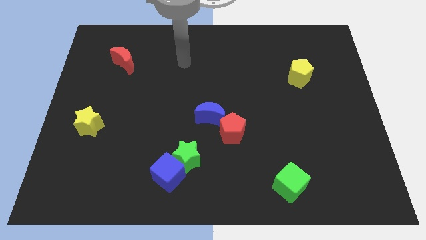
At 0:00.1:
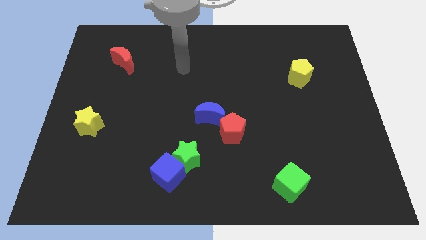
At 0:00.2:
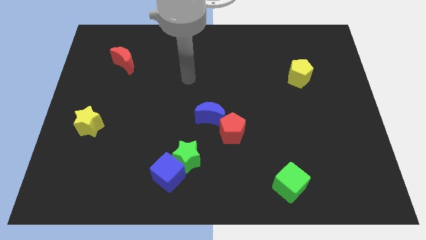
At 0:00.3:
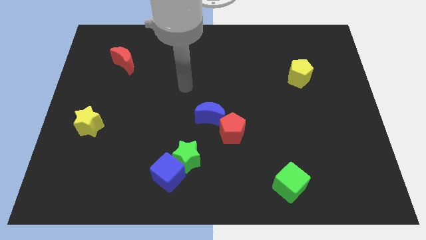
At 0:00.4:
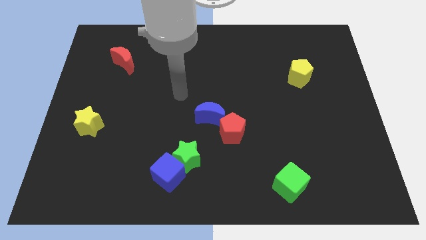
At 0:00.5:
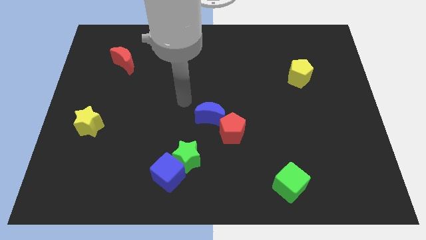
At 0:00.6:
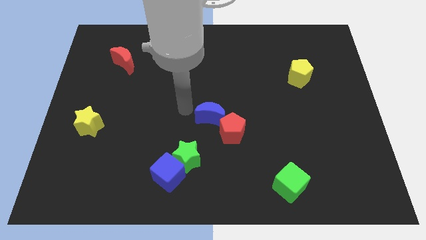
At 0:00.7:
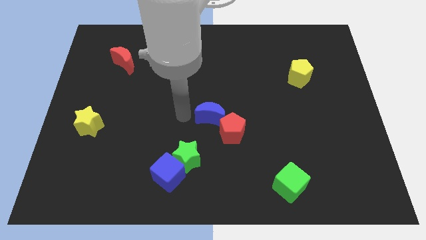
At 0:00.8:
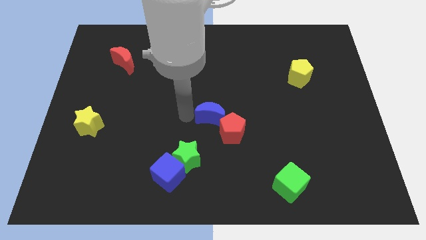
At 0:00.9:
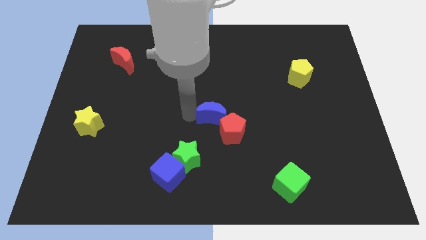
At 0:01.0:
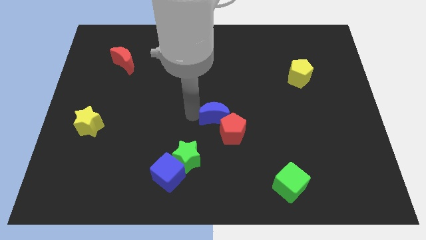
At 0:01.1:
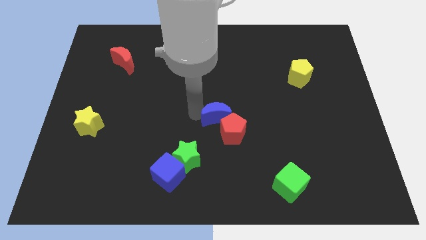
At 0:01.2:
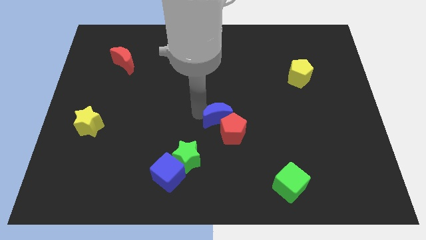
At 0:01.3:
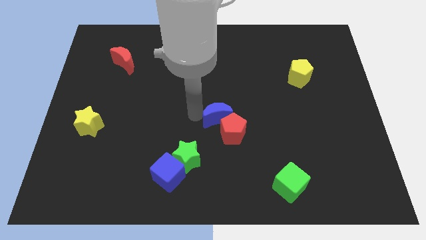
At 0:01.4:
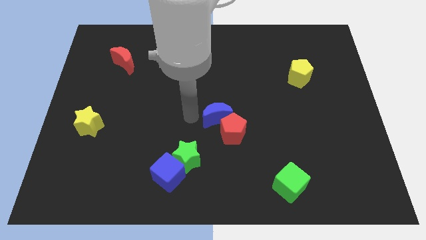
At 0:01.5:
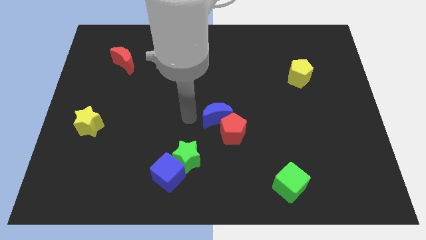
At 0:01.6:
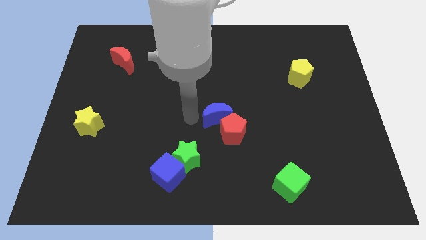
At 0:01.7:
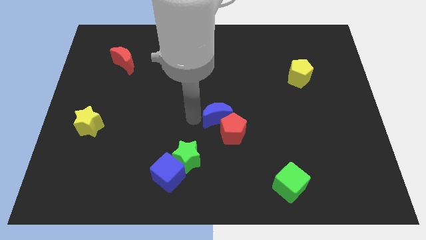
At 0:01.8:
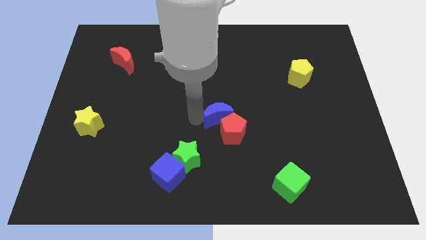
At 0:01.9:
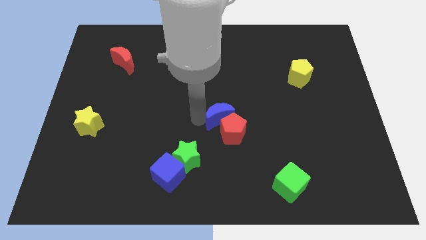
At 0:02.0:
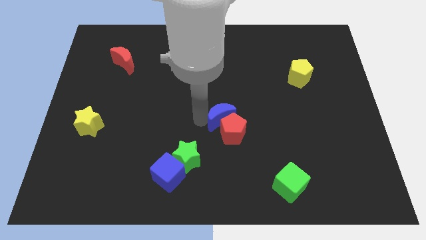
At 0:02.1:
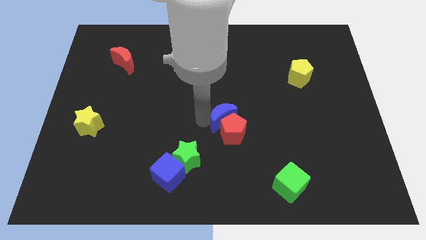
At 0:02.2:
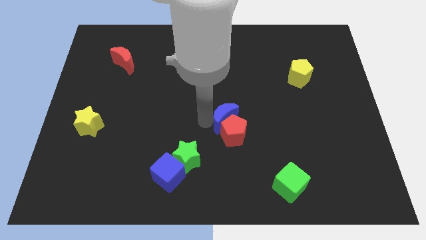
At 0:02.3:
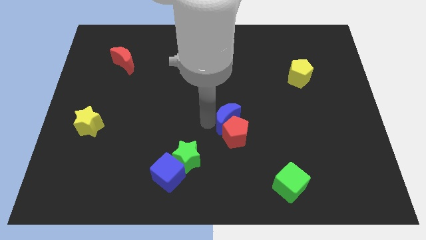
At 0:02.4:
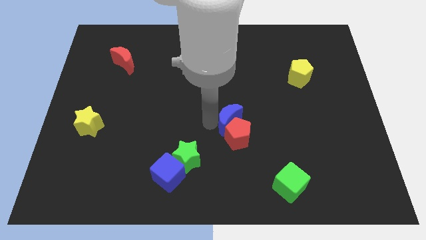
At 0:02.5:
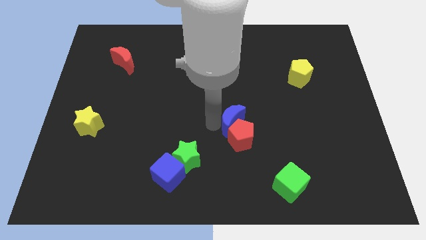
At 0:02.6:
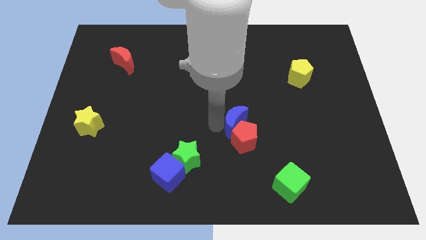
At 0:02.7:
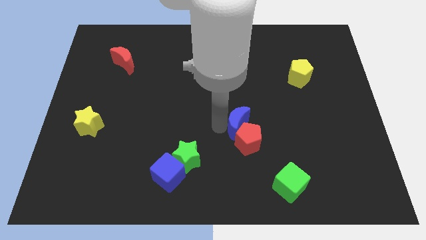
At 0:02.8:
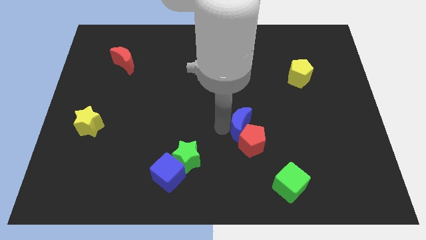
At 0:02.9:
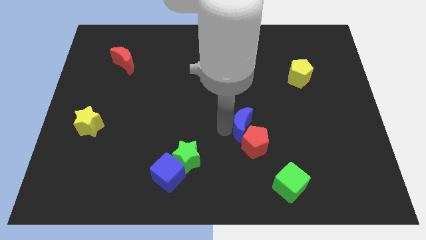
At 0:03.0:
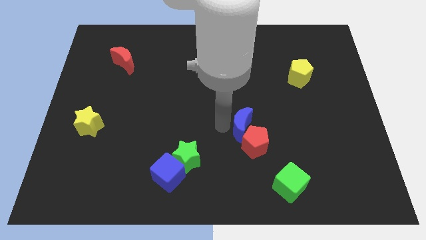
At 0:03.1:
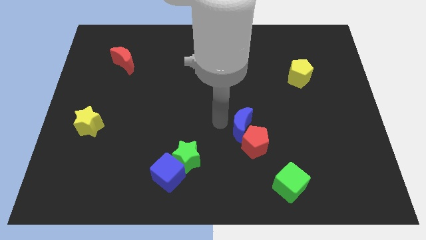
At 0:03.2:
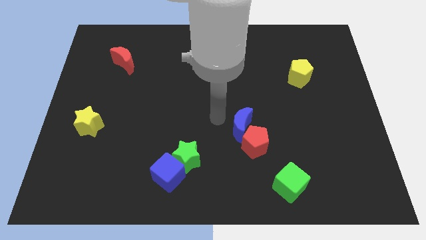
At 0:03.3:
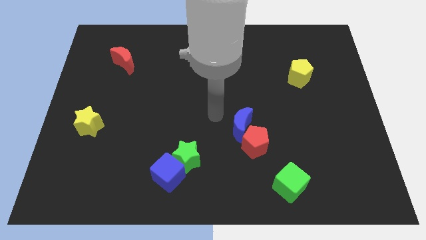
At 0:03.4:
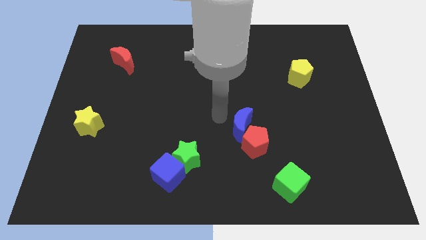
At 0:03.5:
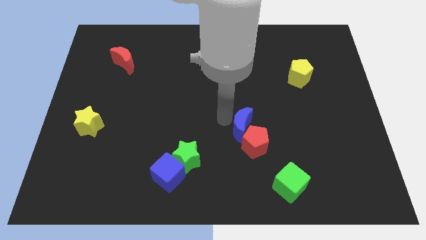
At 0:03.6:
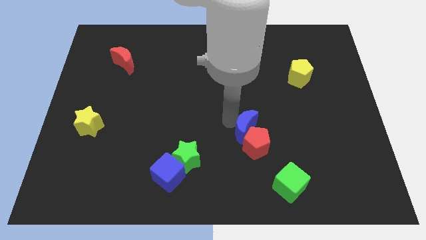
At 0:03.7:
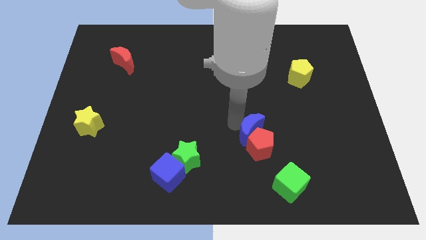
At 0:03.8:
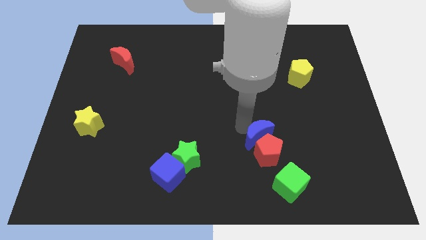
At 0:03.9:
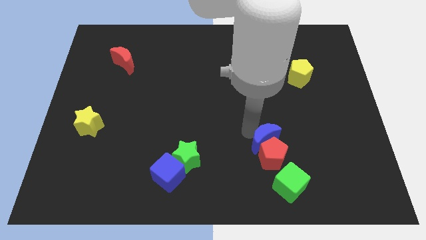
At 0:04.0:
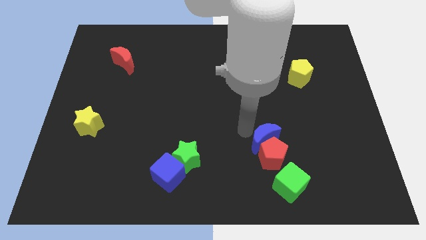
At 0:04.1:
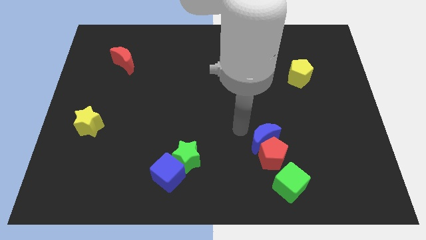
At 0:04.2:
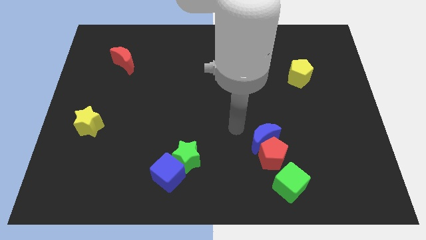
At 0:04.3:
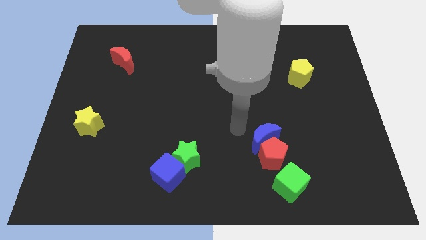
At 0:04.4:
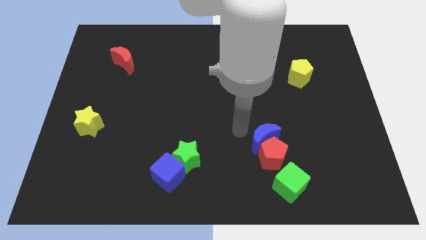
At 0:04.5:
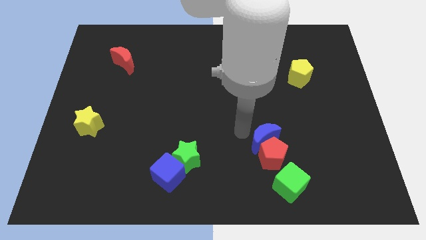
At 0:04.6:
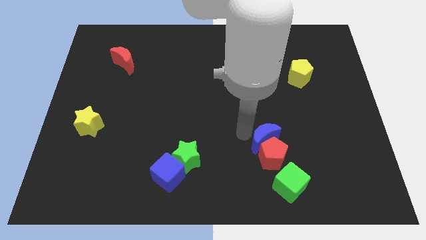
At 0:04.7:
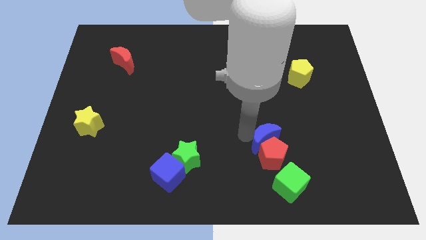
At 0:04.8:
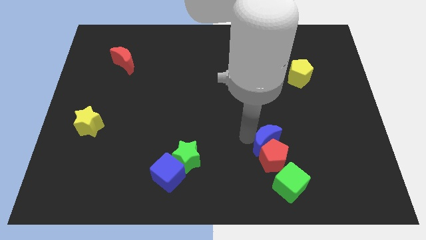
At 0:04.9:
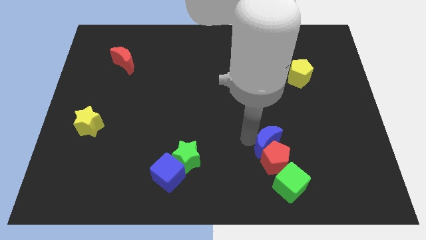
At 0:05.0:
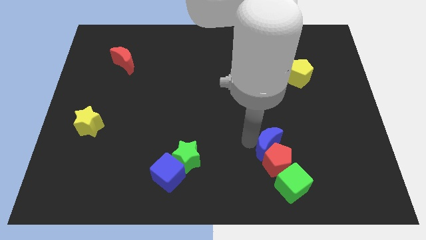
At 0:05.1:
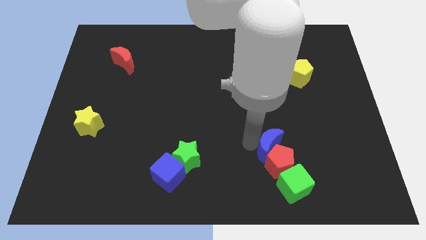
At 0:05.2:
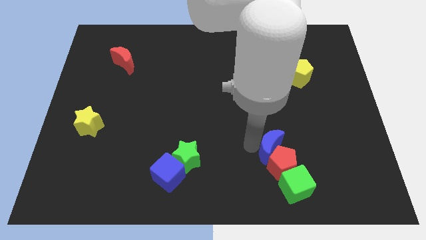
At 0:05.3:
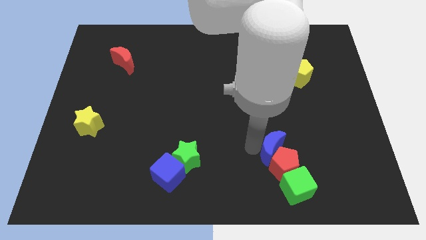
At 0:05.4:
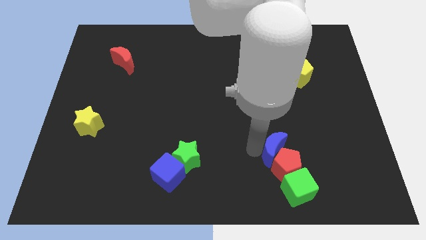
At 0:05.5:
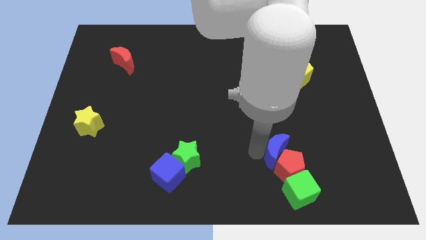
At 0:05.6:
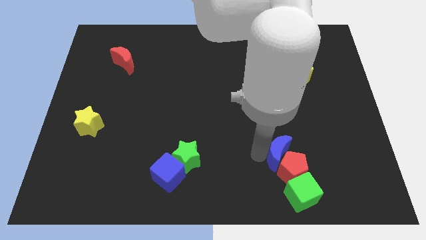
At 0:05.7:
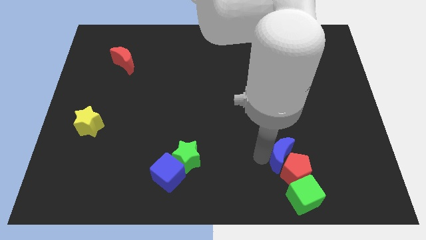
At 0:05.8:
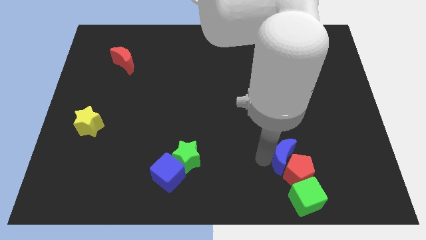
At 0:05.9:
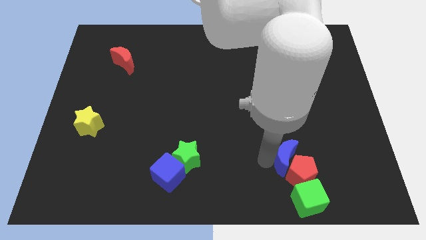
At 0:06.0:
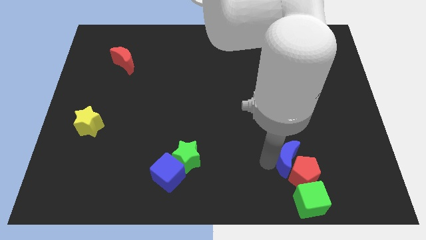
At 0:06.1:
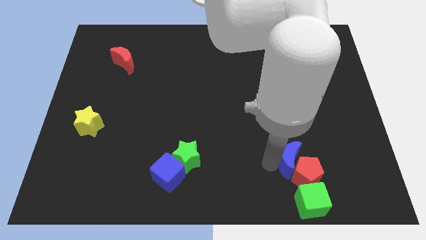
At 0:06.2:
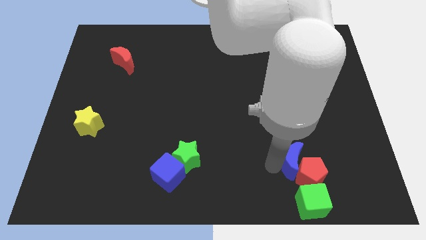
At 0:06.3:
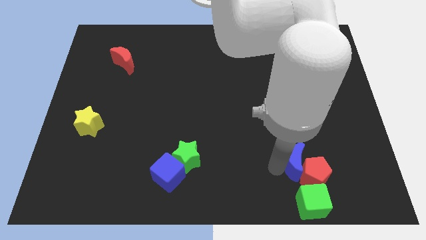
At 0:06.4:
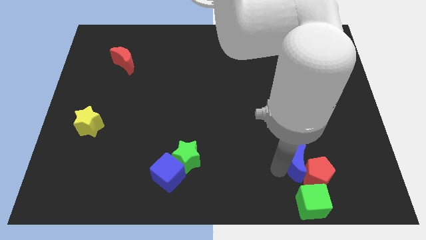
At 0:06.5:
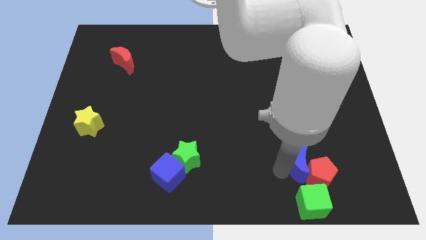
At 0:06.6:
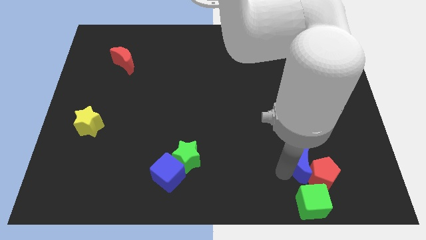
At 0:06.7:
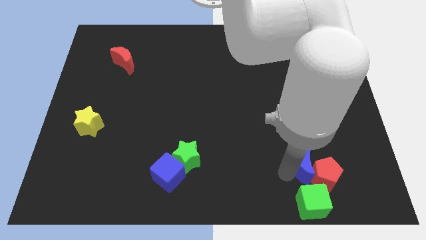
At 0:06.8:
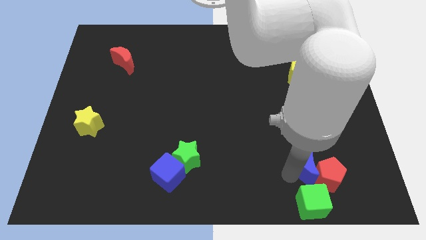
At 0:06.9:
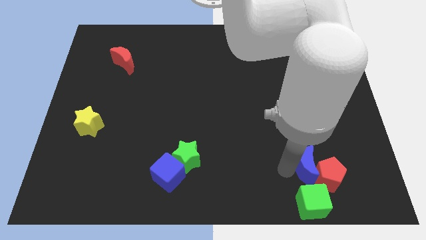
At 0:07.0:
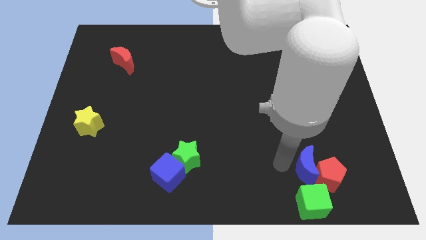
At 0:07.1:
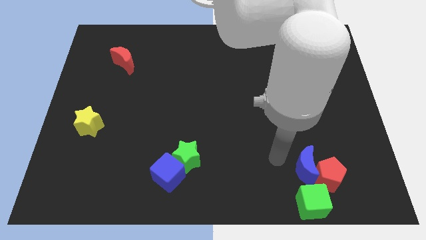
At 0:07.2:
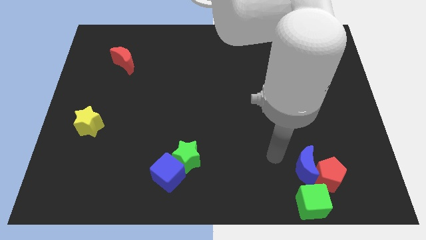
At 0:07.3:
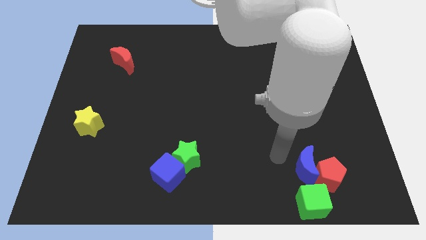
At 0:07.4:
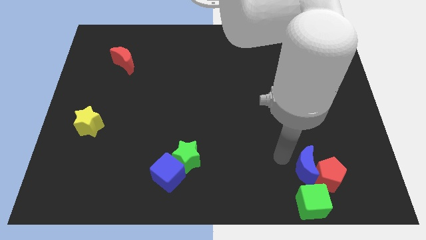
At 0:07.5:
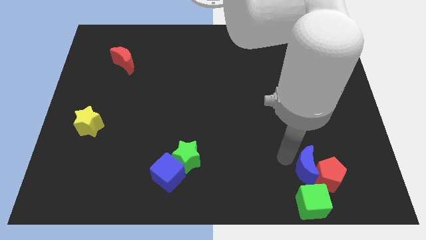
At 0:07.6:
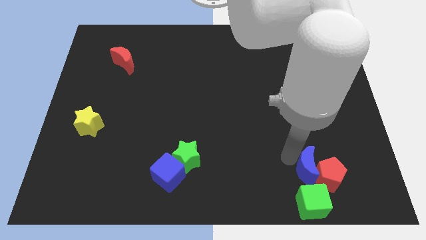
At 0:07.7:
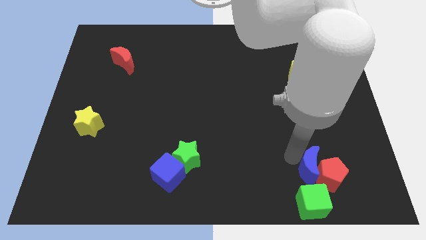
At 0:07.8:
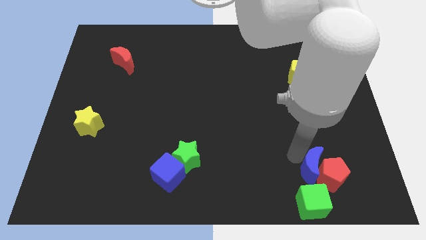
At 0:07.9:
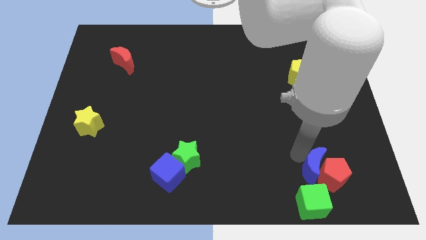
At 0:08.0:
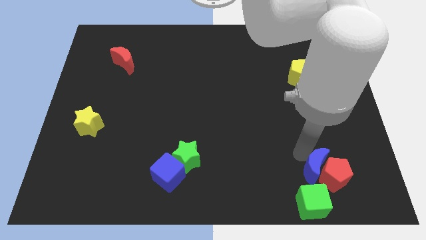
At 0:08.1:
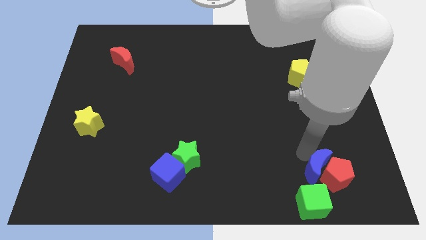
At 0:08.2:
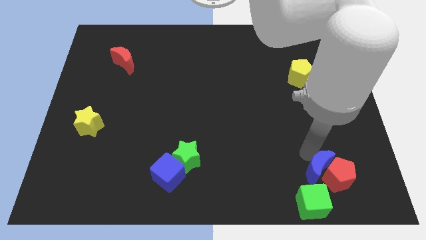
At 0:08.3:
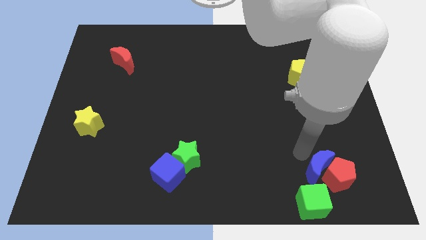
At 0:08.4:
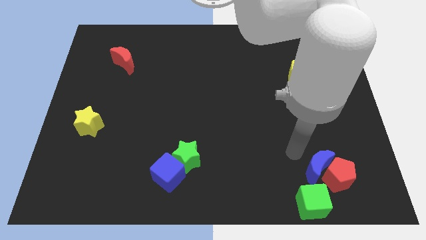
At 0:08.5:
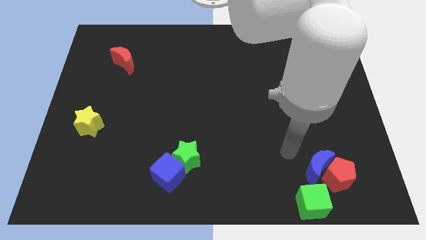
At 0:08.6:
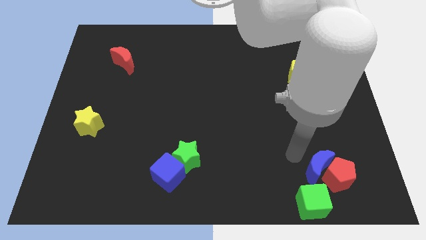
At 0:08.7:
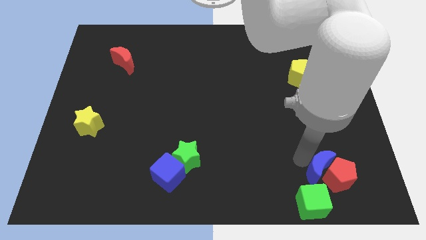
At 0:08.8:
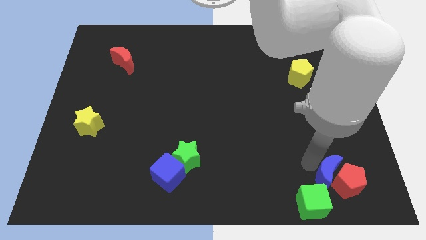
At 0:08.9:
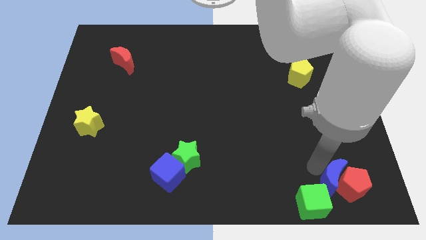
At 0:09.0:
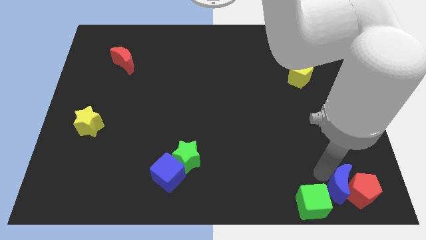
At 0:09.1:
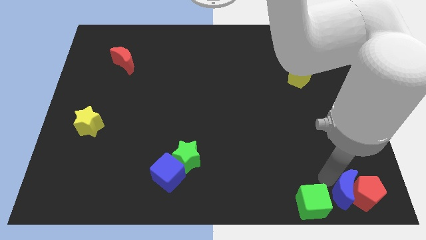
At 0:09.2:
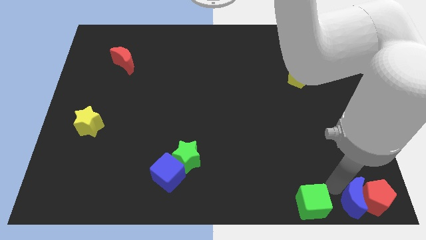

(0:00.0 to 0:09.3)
put the blue moon to the bottom right
